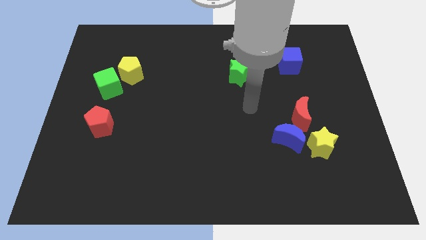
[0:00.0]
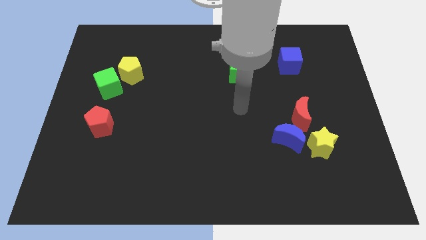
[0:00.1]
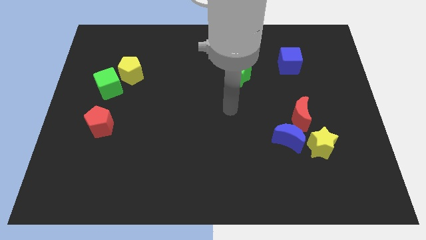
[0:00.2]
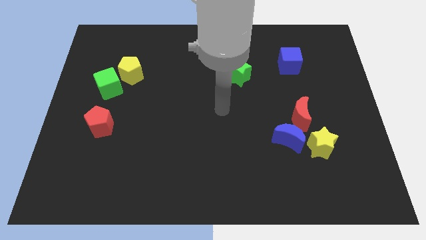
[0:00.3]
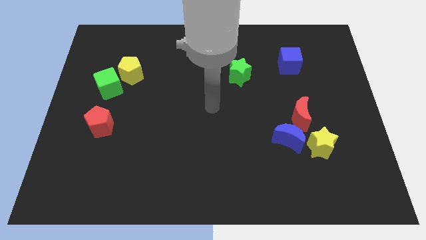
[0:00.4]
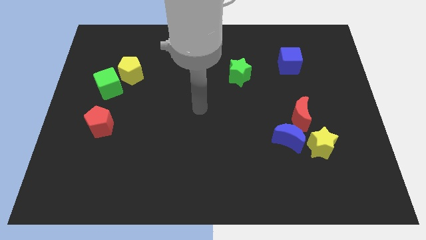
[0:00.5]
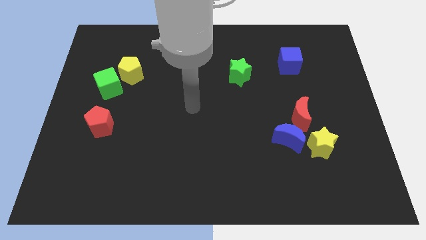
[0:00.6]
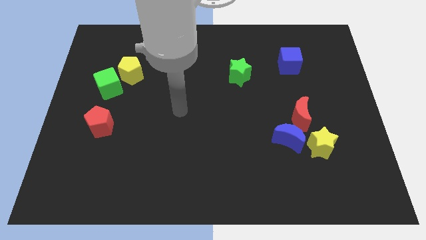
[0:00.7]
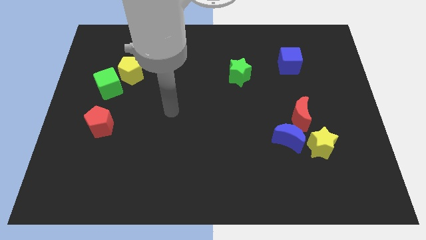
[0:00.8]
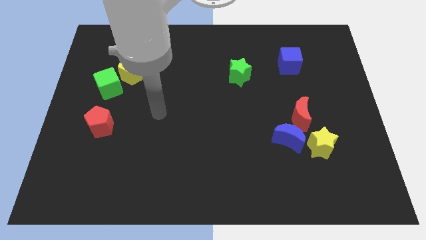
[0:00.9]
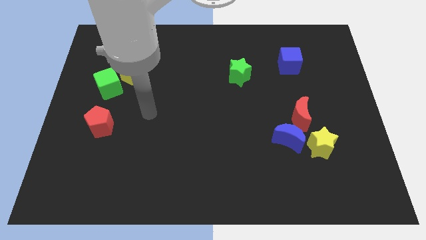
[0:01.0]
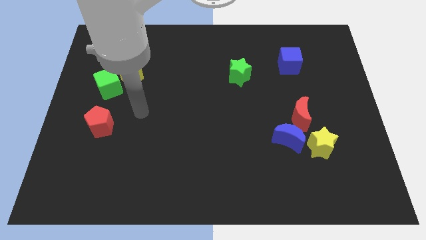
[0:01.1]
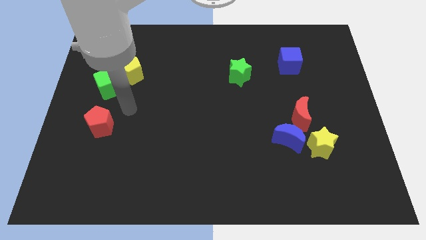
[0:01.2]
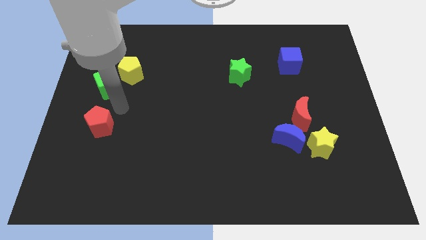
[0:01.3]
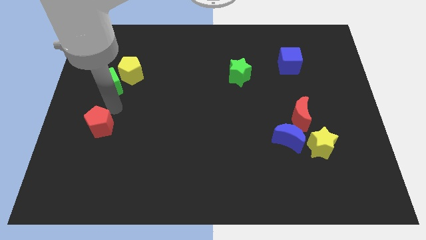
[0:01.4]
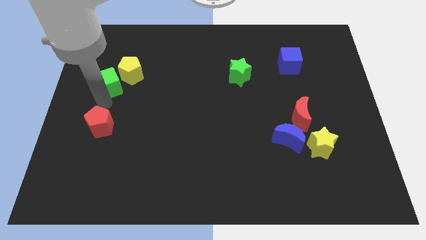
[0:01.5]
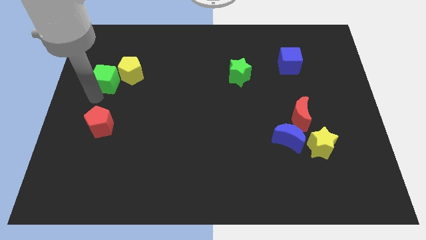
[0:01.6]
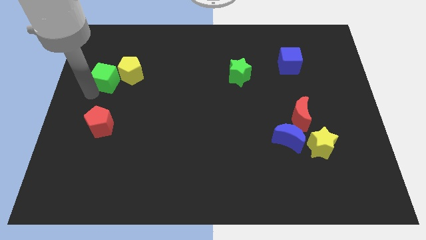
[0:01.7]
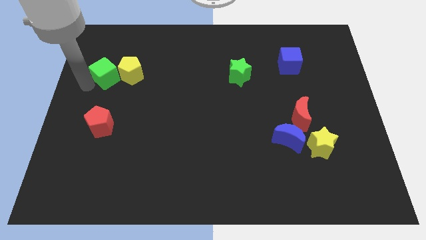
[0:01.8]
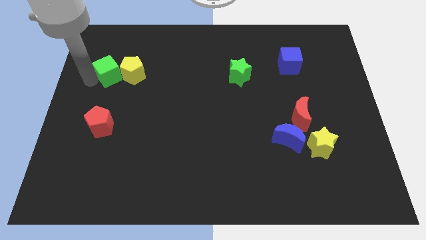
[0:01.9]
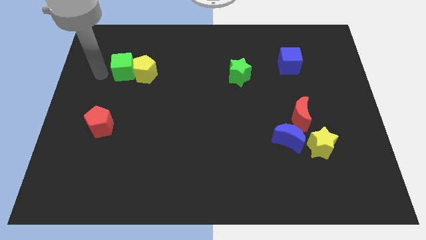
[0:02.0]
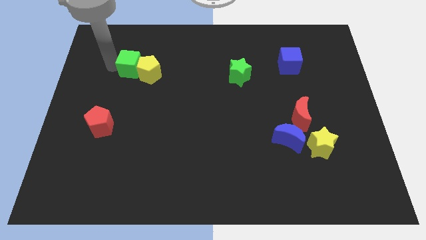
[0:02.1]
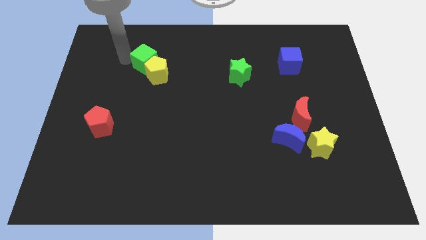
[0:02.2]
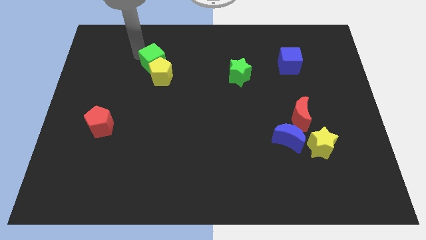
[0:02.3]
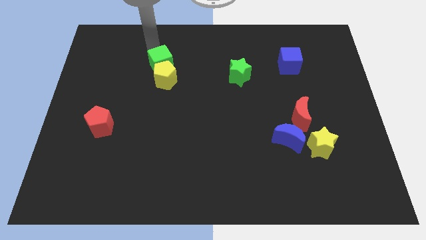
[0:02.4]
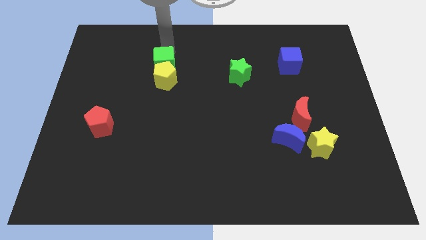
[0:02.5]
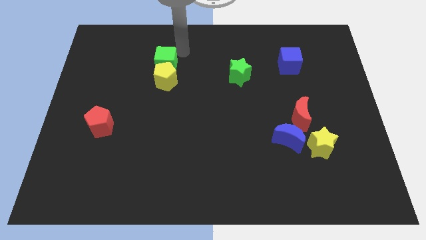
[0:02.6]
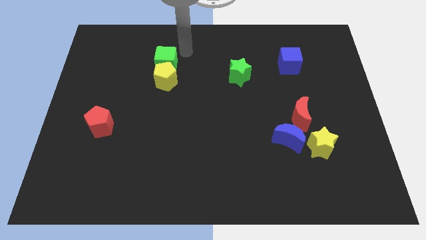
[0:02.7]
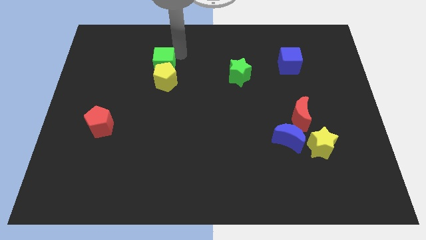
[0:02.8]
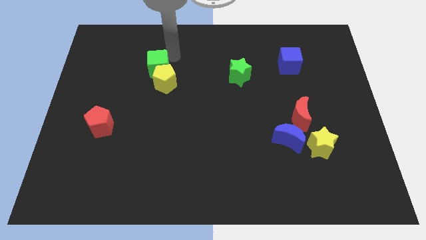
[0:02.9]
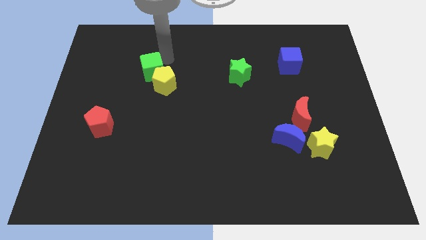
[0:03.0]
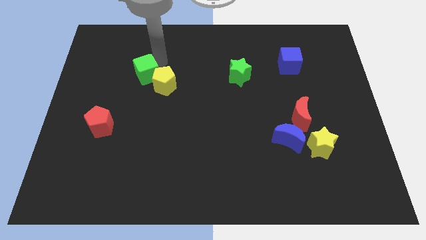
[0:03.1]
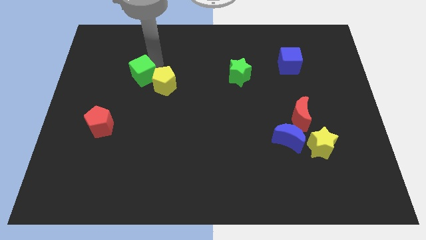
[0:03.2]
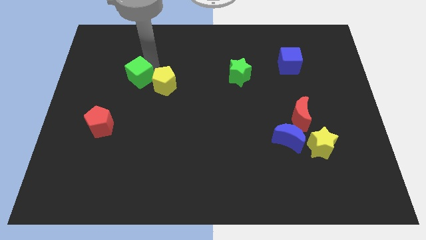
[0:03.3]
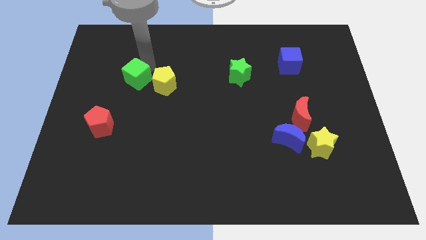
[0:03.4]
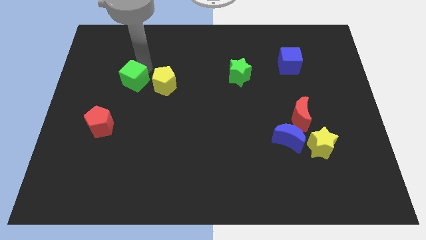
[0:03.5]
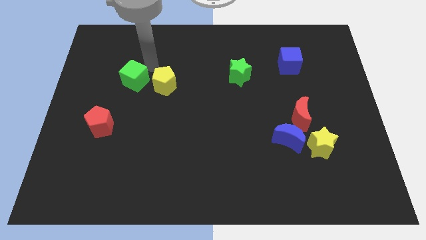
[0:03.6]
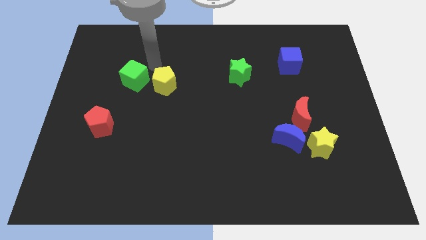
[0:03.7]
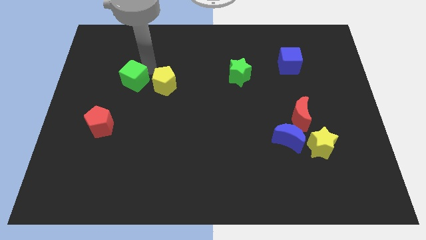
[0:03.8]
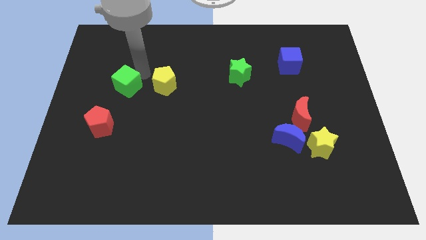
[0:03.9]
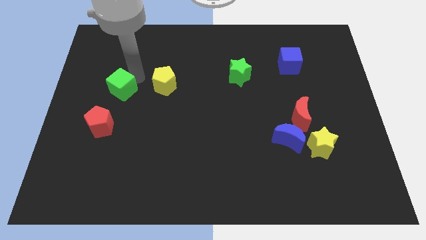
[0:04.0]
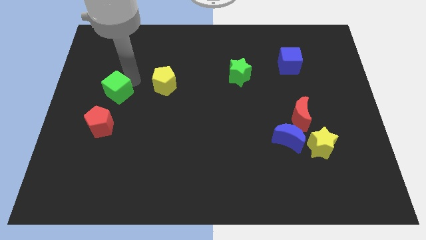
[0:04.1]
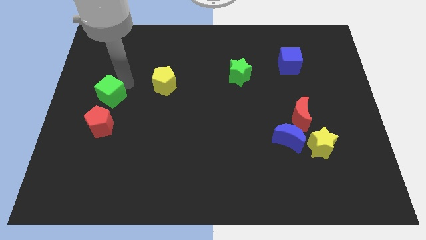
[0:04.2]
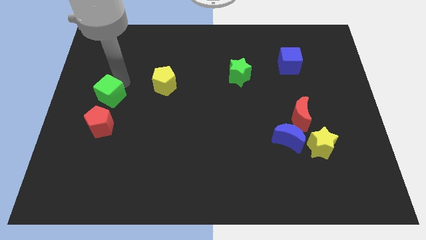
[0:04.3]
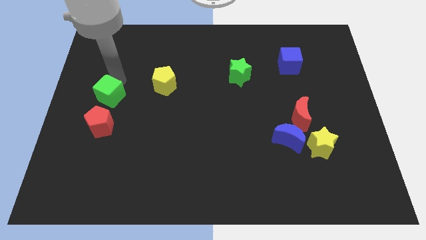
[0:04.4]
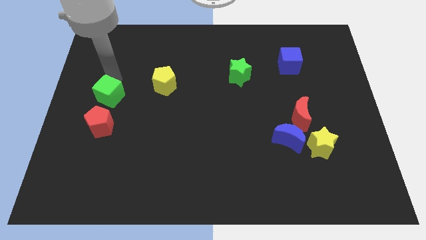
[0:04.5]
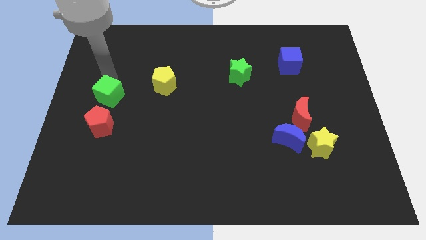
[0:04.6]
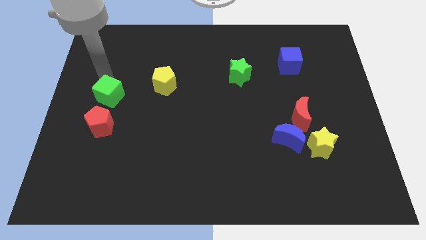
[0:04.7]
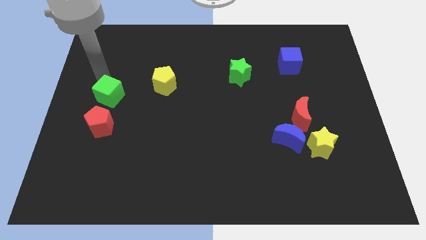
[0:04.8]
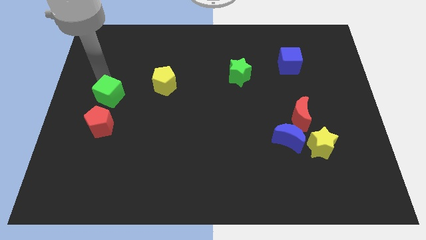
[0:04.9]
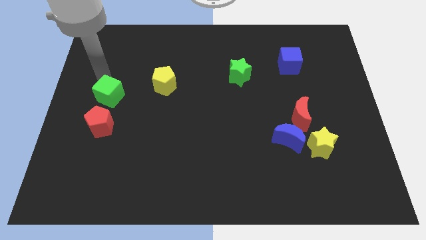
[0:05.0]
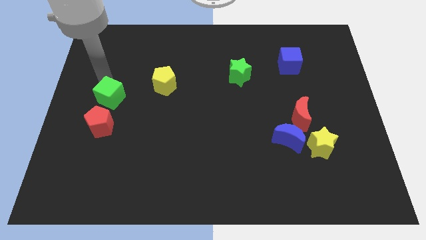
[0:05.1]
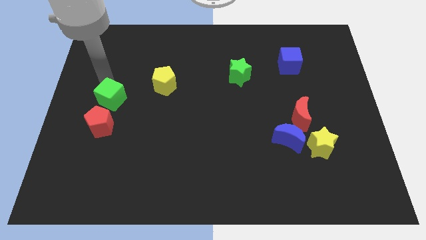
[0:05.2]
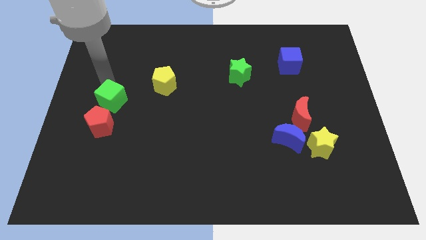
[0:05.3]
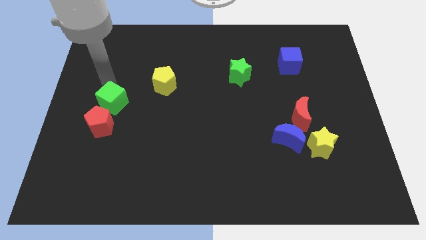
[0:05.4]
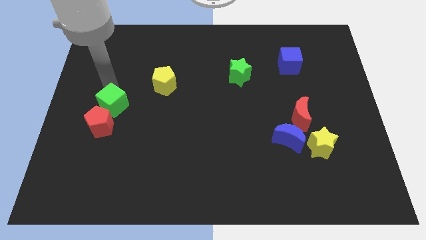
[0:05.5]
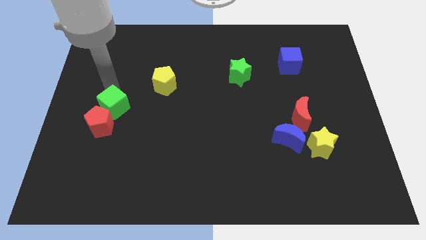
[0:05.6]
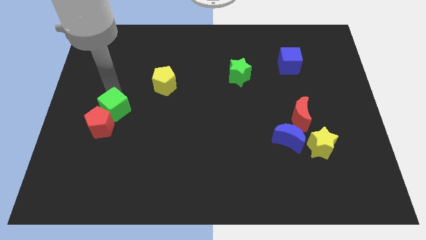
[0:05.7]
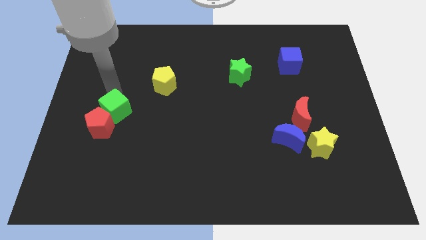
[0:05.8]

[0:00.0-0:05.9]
push the green cube down a little bit

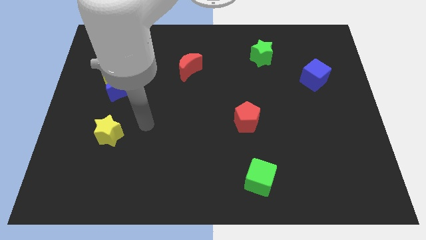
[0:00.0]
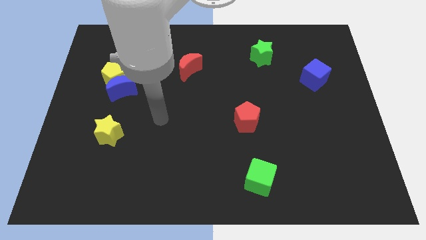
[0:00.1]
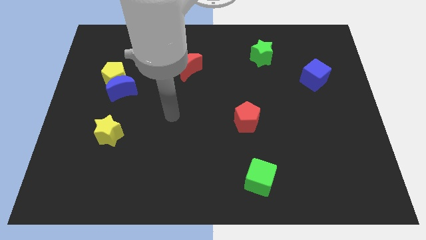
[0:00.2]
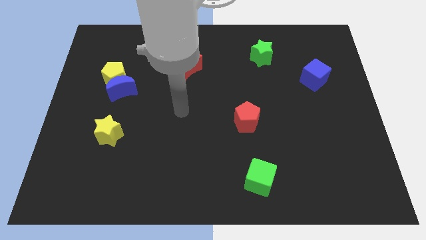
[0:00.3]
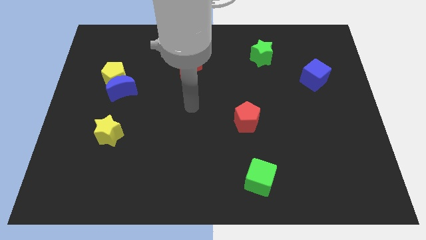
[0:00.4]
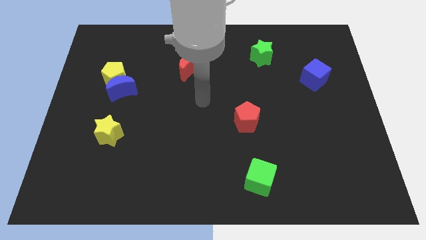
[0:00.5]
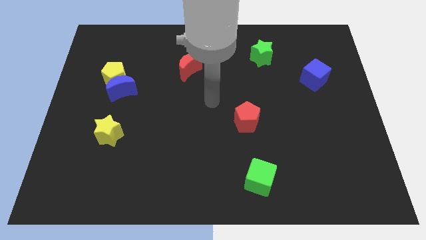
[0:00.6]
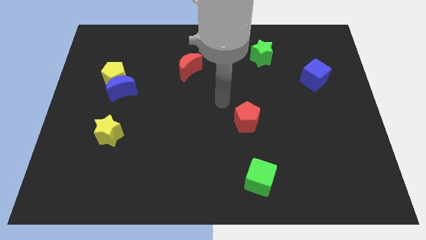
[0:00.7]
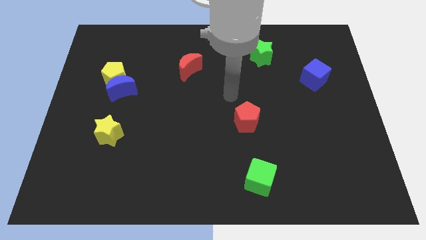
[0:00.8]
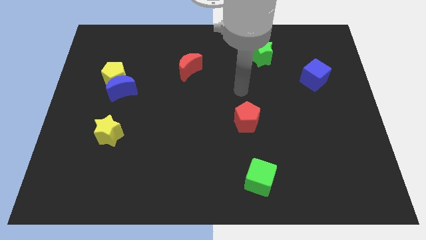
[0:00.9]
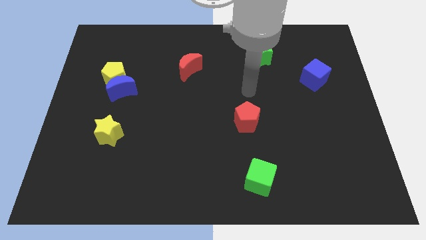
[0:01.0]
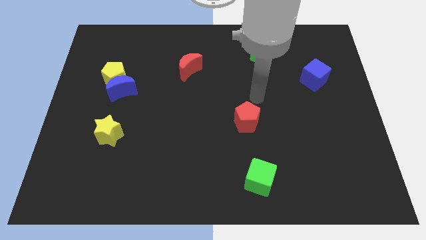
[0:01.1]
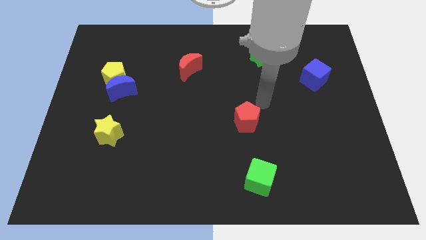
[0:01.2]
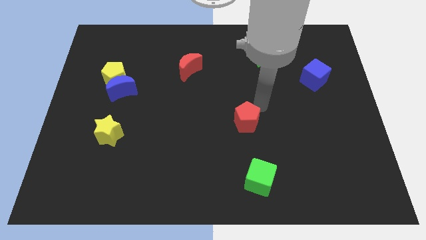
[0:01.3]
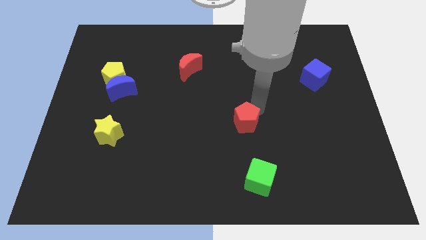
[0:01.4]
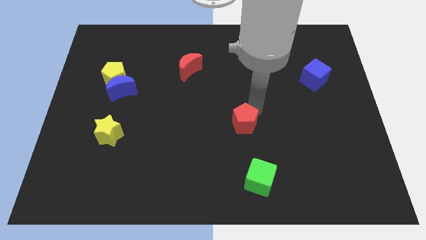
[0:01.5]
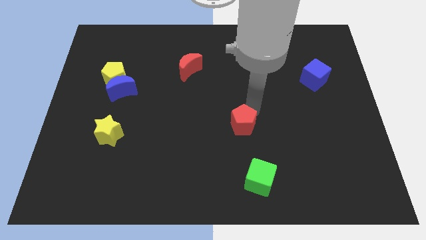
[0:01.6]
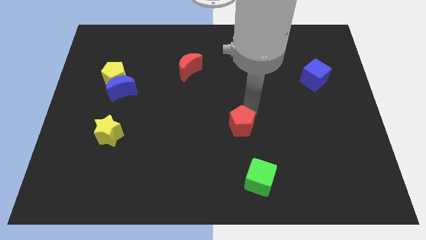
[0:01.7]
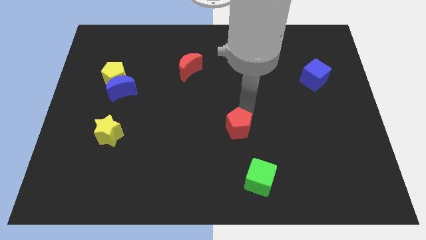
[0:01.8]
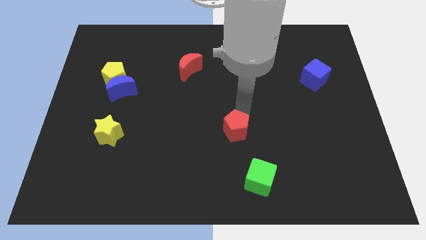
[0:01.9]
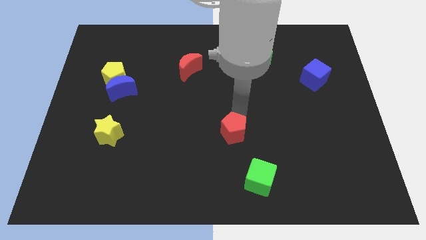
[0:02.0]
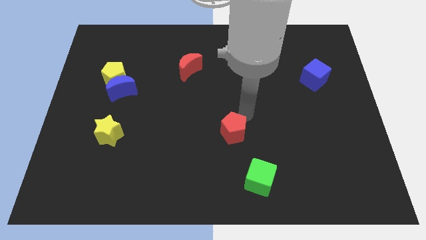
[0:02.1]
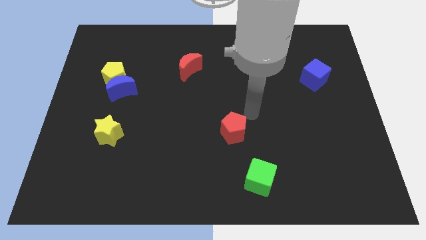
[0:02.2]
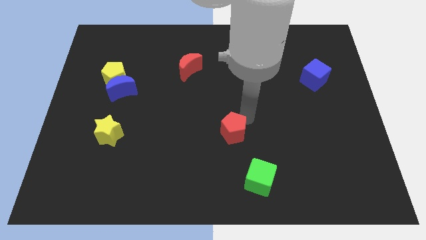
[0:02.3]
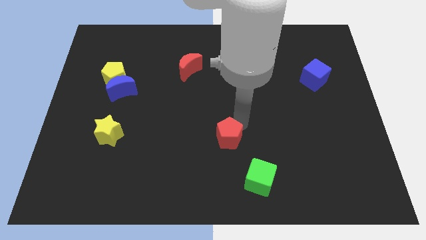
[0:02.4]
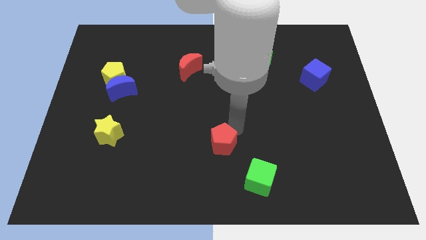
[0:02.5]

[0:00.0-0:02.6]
slightly move the red pentagon downwards and to the left diagonally
